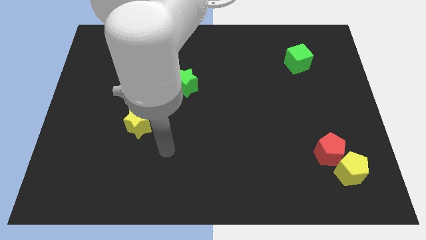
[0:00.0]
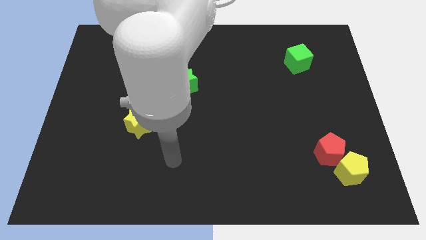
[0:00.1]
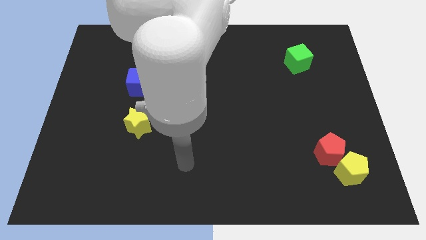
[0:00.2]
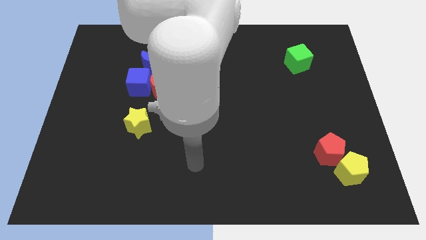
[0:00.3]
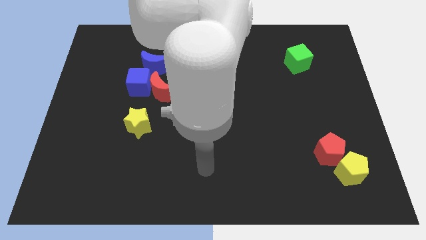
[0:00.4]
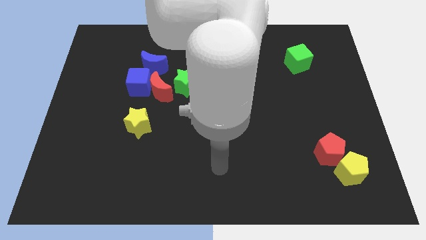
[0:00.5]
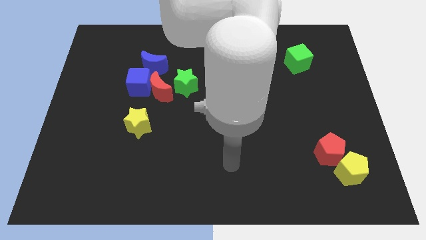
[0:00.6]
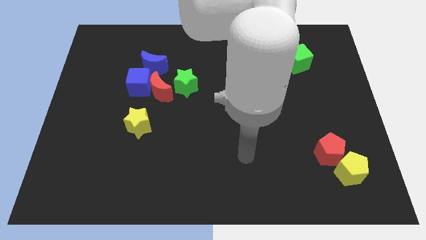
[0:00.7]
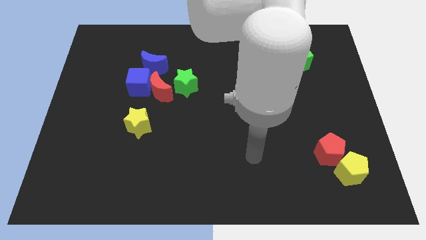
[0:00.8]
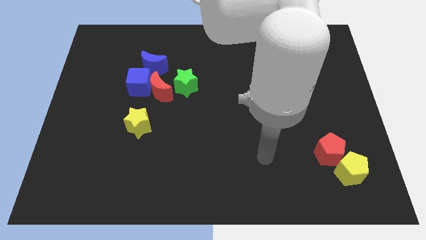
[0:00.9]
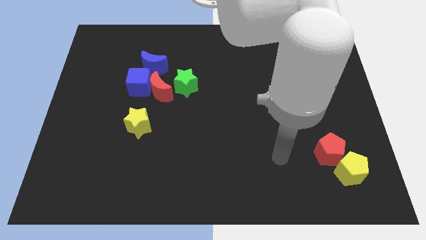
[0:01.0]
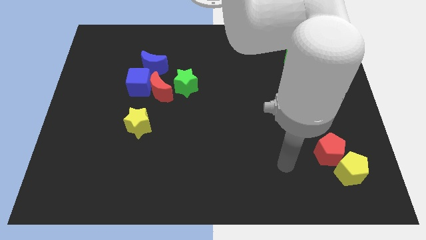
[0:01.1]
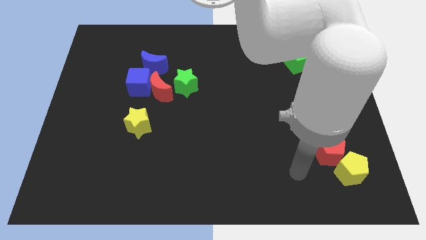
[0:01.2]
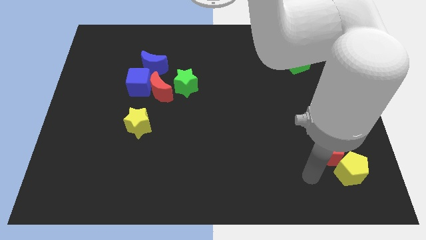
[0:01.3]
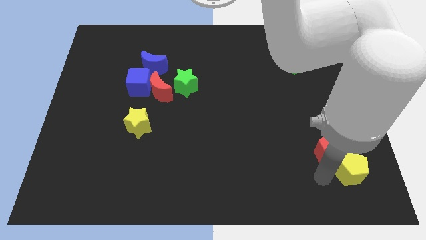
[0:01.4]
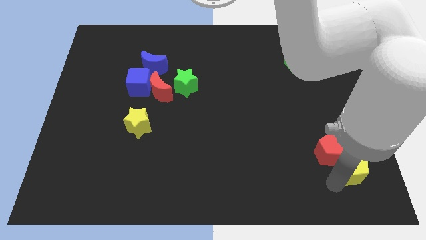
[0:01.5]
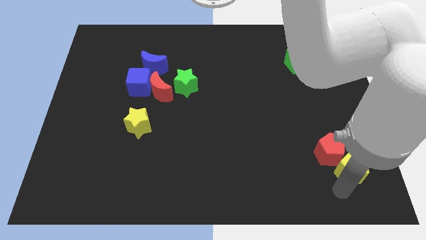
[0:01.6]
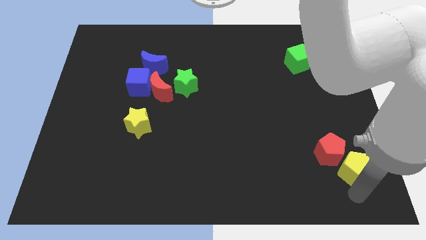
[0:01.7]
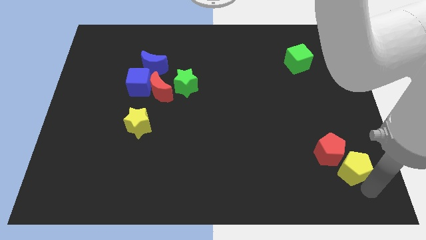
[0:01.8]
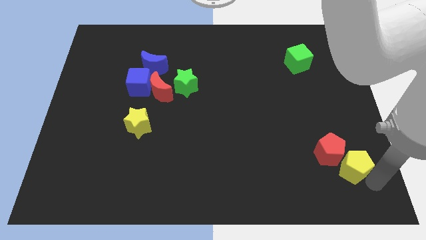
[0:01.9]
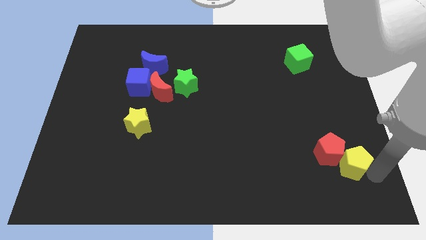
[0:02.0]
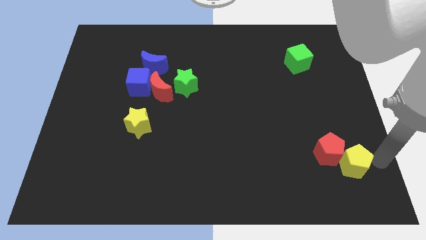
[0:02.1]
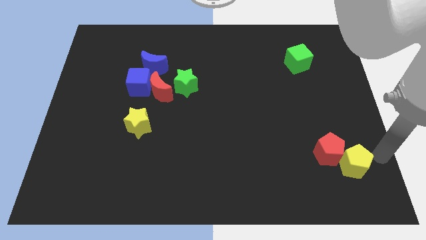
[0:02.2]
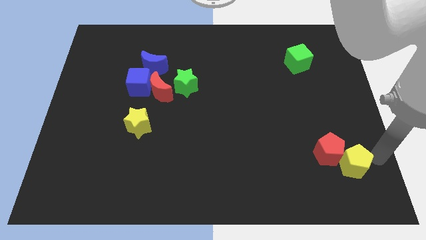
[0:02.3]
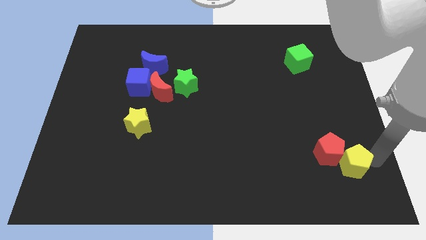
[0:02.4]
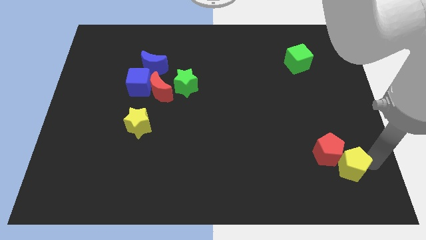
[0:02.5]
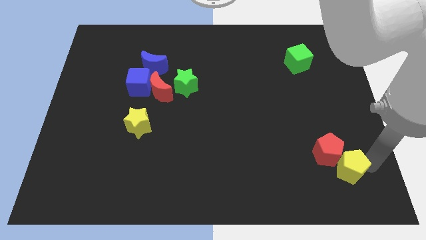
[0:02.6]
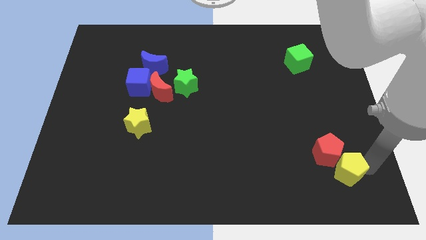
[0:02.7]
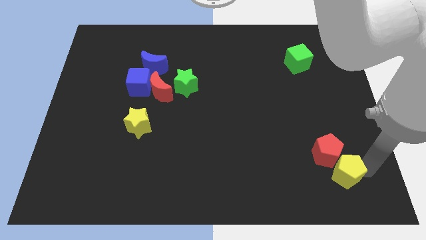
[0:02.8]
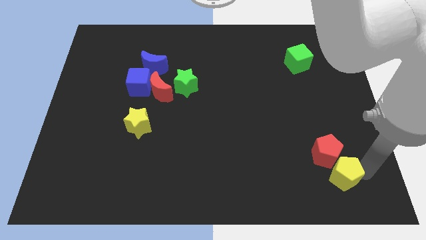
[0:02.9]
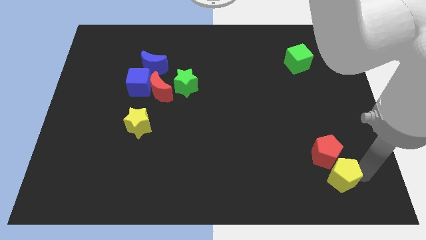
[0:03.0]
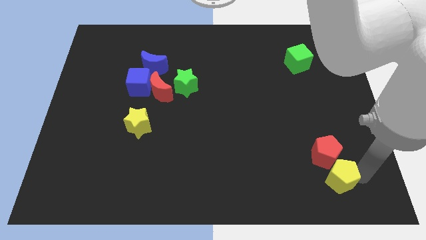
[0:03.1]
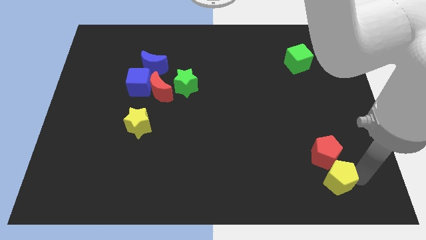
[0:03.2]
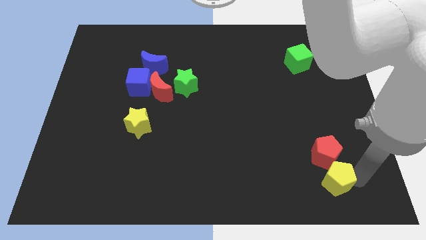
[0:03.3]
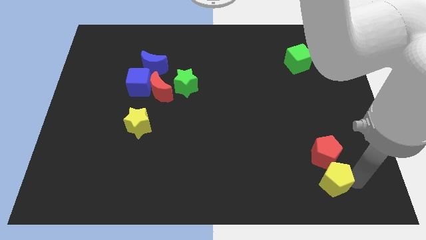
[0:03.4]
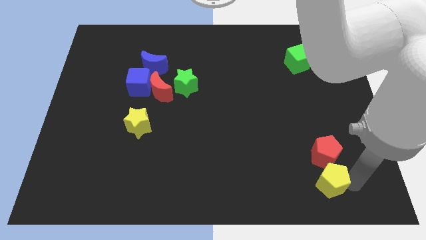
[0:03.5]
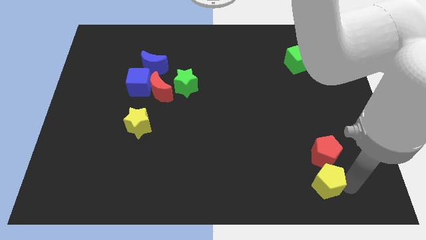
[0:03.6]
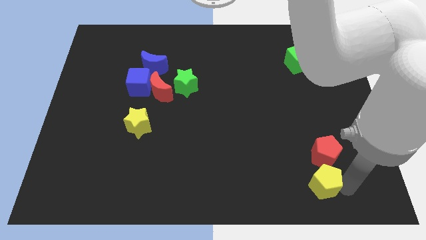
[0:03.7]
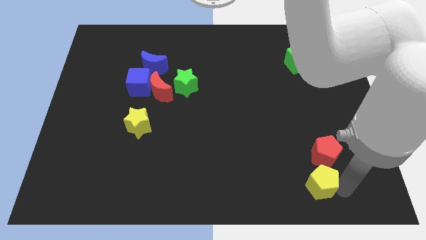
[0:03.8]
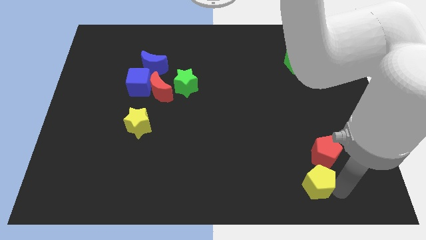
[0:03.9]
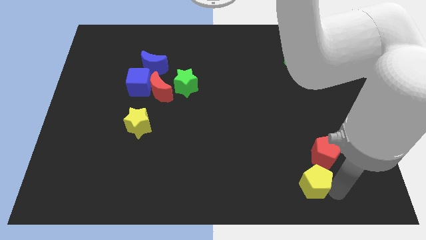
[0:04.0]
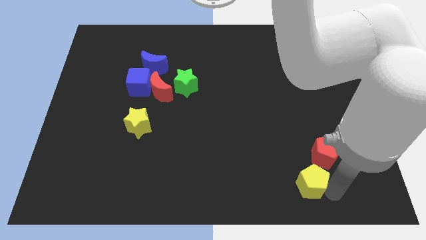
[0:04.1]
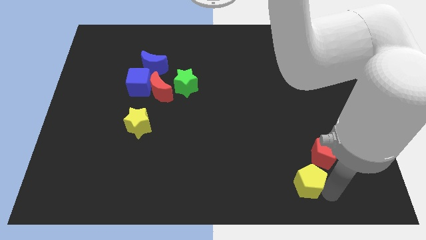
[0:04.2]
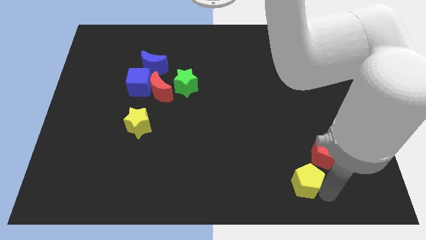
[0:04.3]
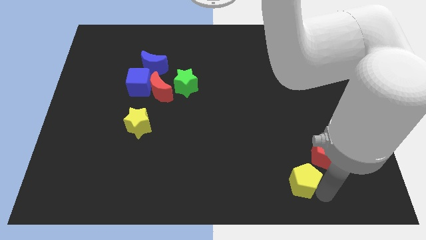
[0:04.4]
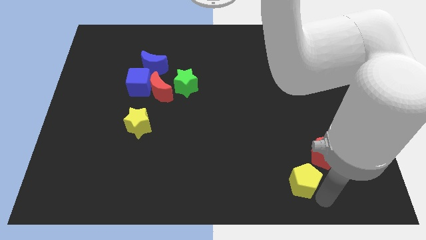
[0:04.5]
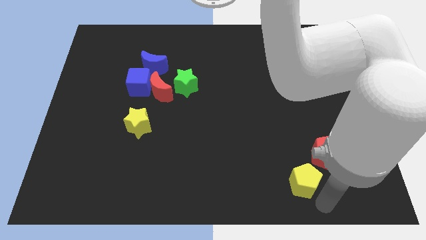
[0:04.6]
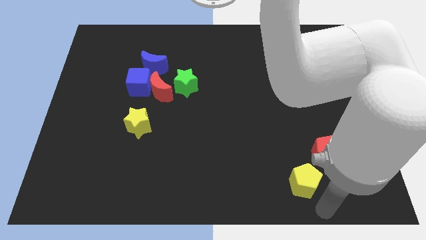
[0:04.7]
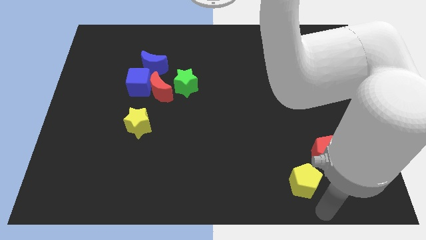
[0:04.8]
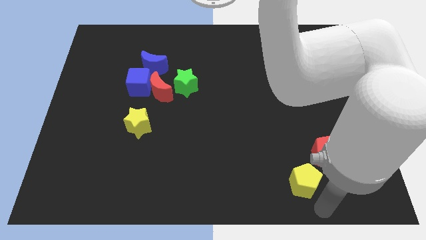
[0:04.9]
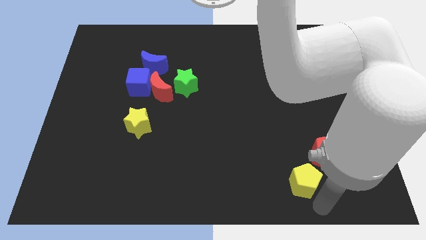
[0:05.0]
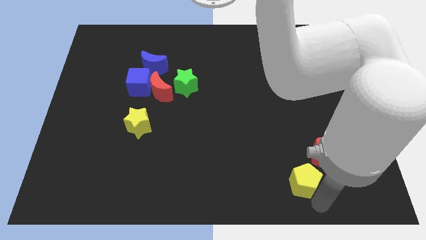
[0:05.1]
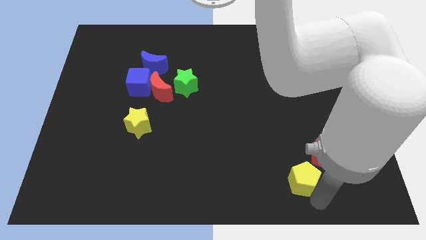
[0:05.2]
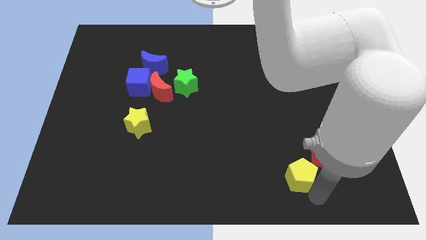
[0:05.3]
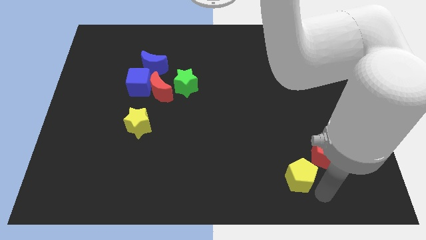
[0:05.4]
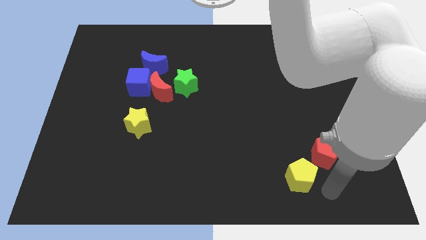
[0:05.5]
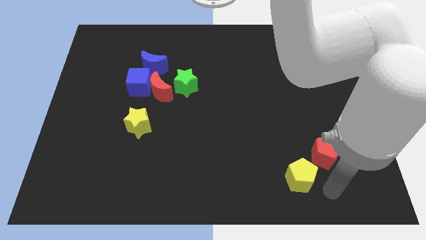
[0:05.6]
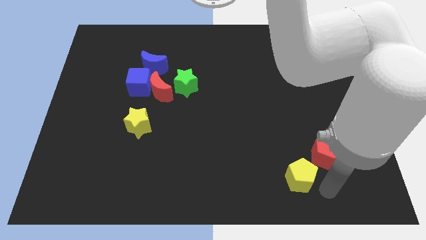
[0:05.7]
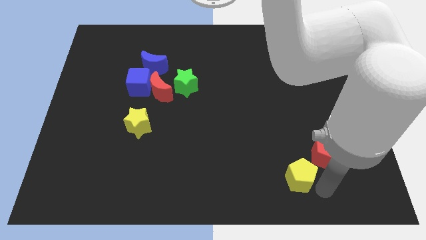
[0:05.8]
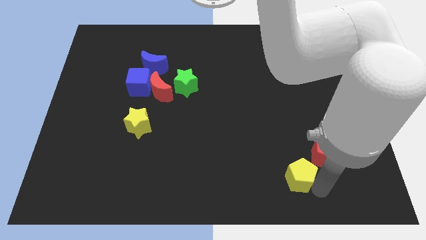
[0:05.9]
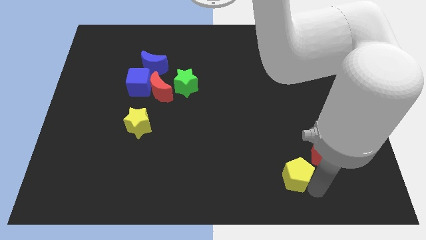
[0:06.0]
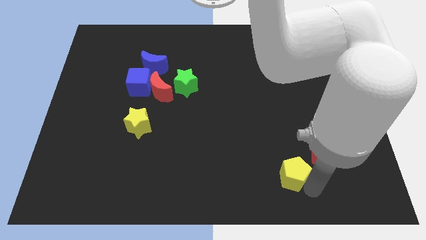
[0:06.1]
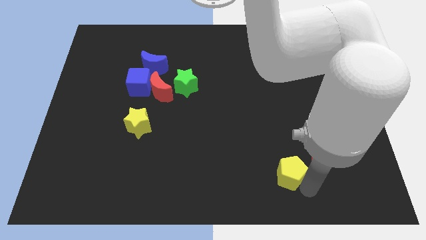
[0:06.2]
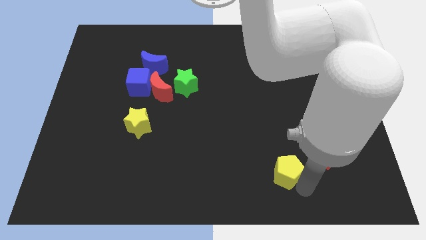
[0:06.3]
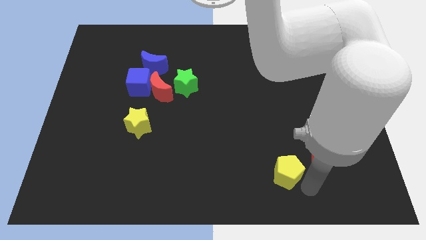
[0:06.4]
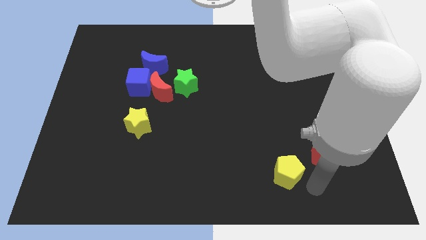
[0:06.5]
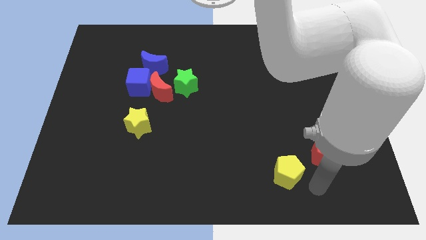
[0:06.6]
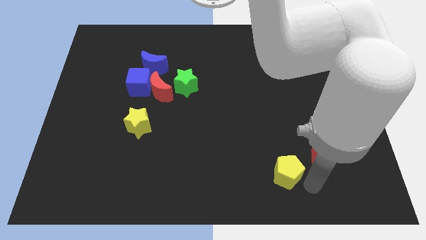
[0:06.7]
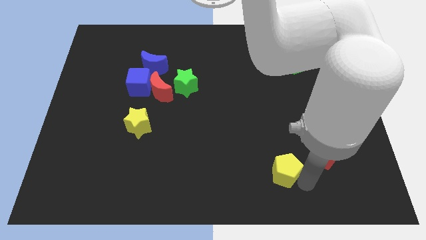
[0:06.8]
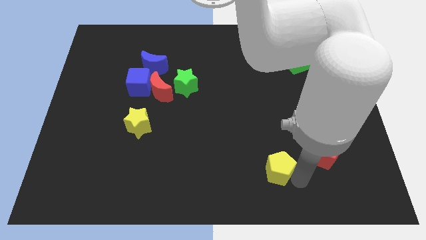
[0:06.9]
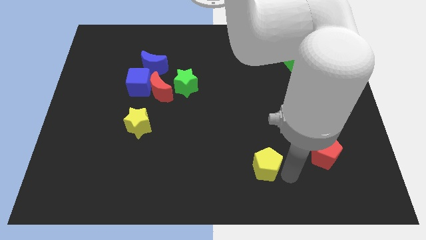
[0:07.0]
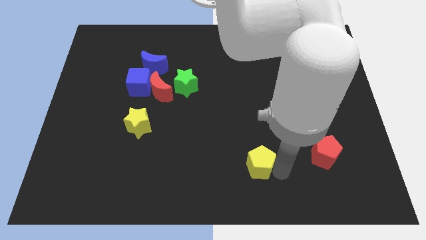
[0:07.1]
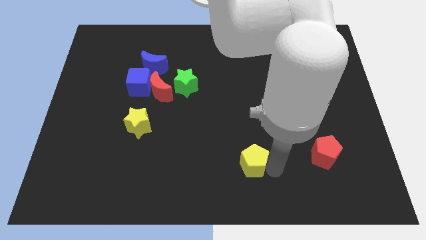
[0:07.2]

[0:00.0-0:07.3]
push the yellow pentagon to the left

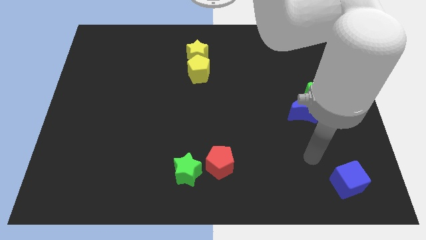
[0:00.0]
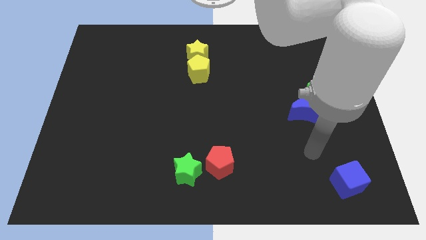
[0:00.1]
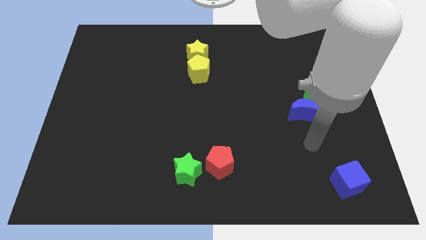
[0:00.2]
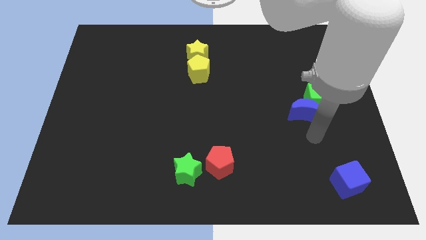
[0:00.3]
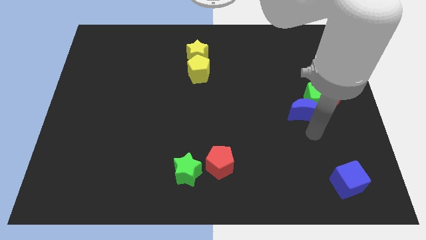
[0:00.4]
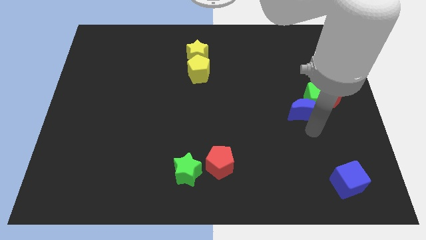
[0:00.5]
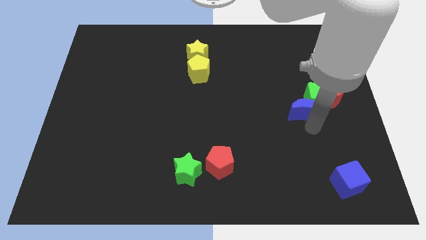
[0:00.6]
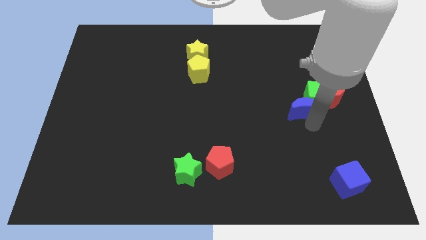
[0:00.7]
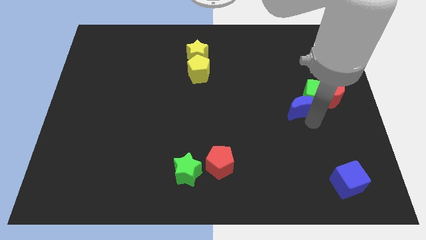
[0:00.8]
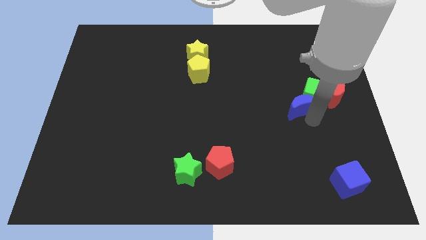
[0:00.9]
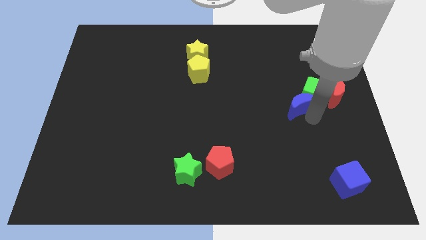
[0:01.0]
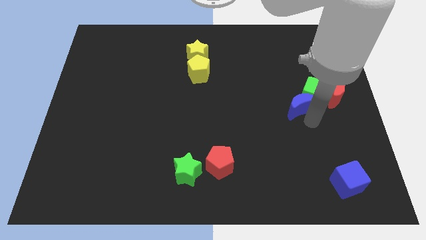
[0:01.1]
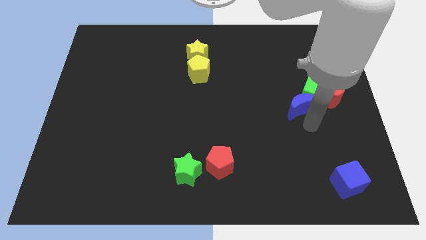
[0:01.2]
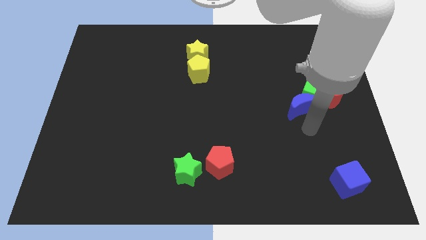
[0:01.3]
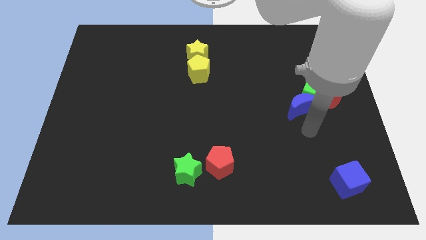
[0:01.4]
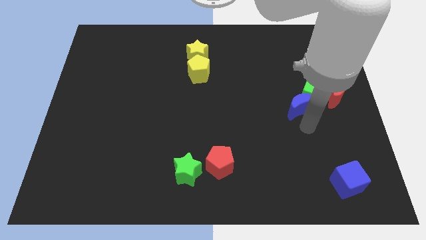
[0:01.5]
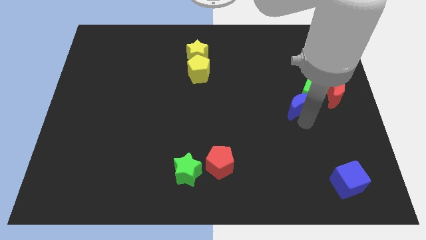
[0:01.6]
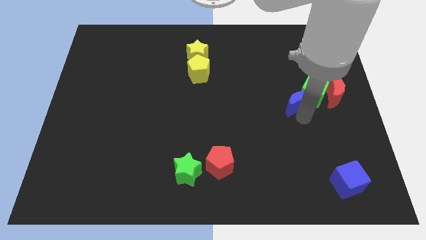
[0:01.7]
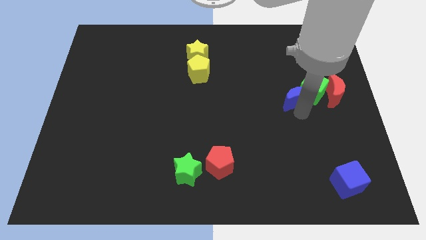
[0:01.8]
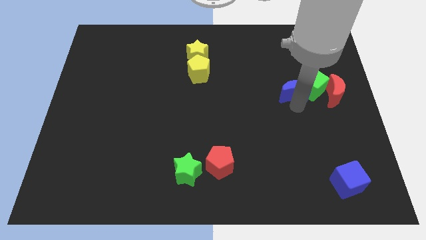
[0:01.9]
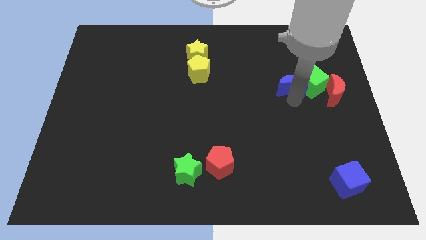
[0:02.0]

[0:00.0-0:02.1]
slightly push the blue moon upwards
